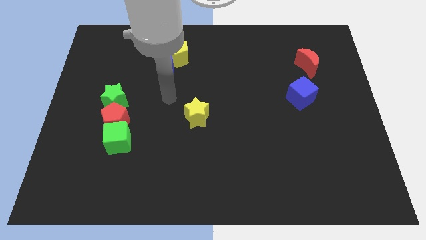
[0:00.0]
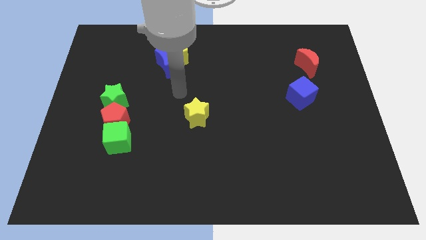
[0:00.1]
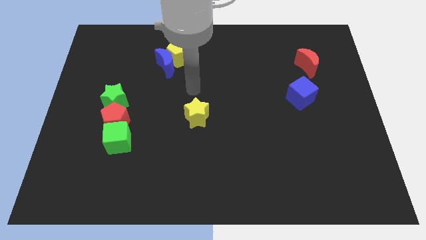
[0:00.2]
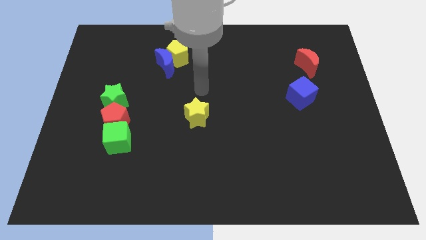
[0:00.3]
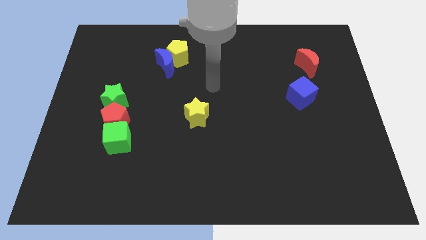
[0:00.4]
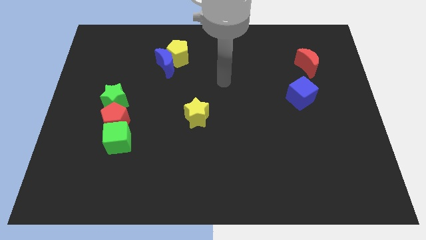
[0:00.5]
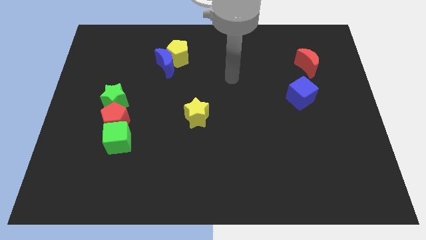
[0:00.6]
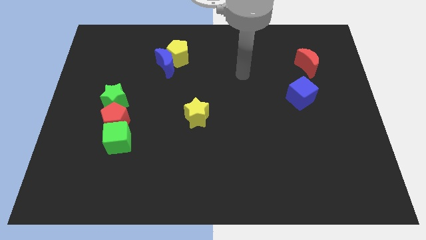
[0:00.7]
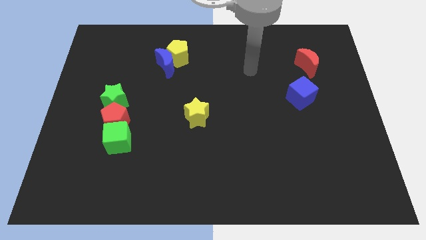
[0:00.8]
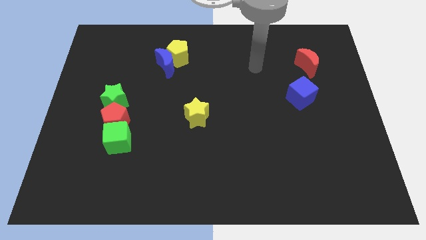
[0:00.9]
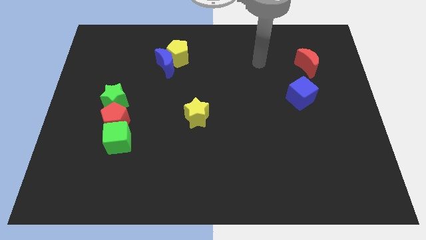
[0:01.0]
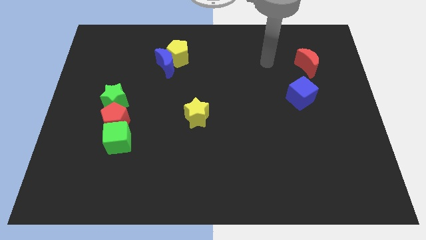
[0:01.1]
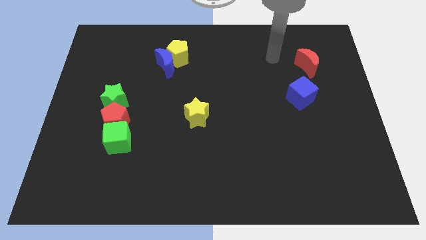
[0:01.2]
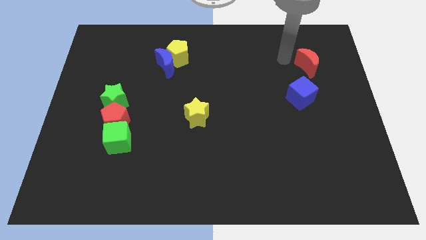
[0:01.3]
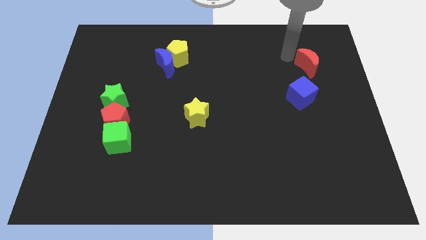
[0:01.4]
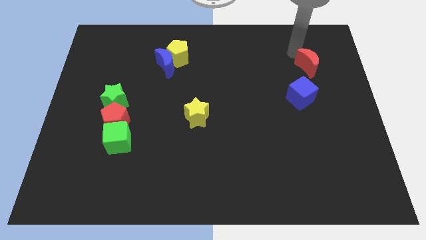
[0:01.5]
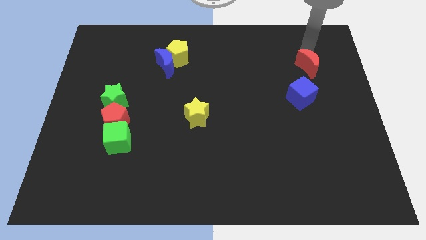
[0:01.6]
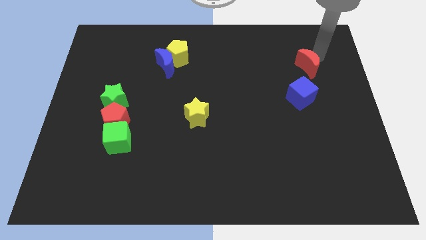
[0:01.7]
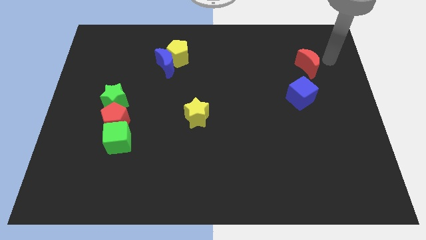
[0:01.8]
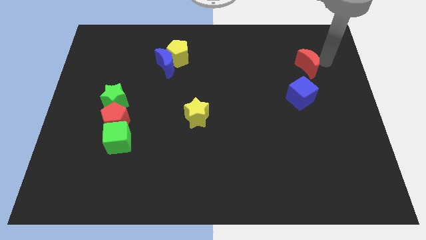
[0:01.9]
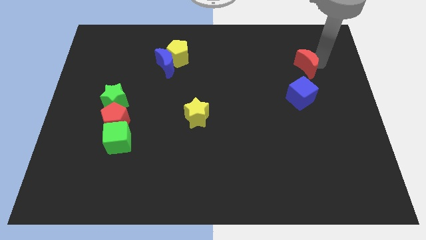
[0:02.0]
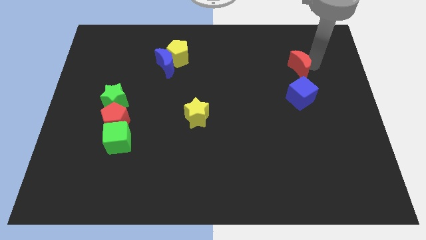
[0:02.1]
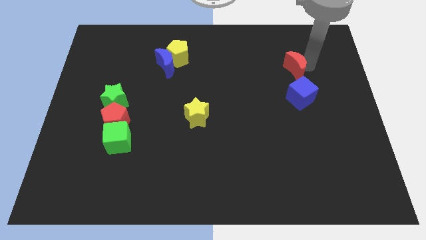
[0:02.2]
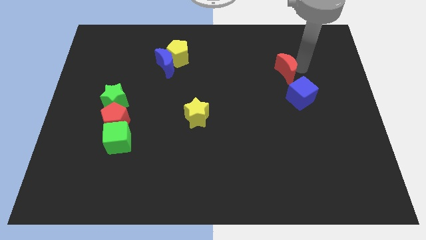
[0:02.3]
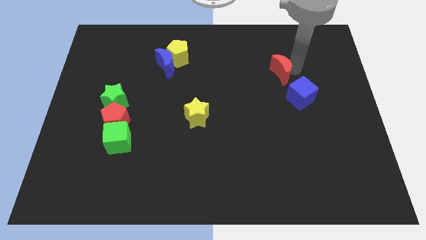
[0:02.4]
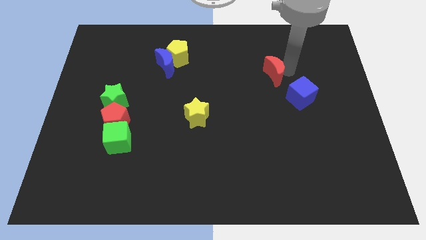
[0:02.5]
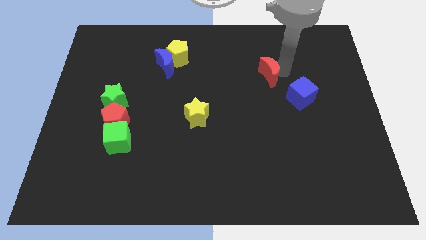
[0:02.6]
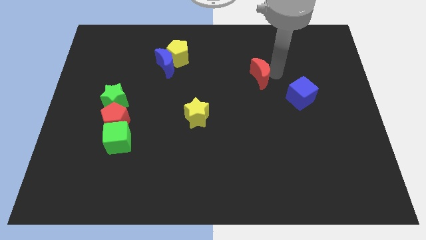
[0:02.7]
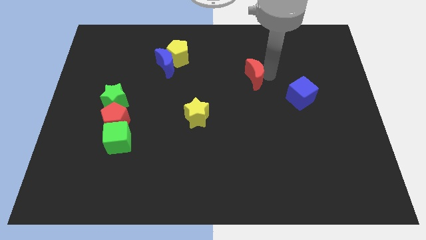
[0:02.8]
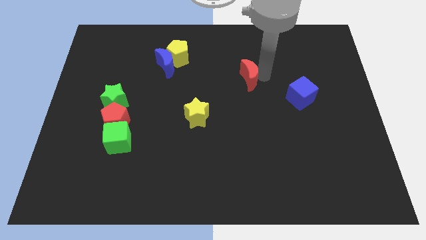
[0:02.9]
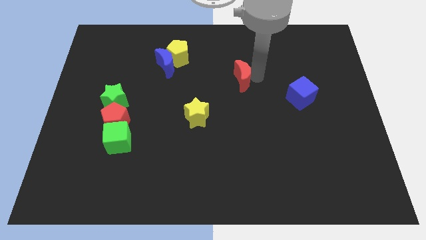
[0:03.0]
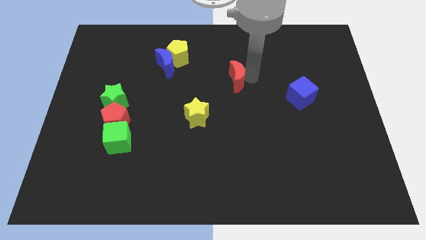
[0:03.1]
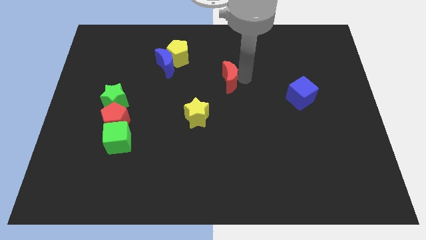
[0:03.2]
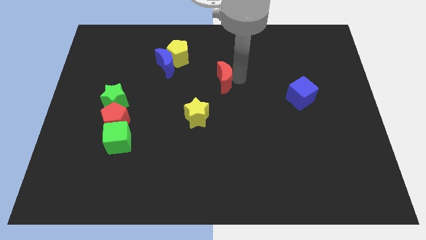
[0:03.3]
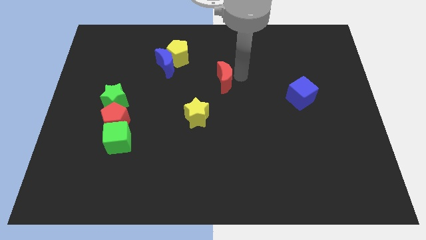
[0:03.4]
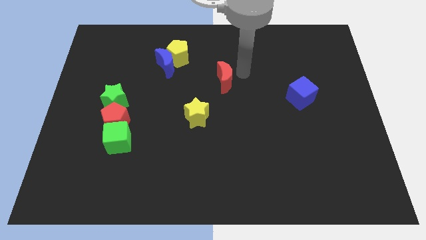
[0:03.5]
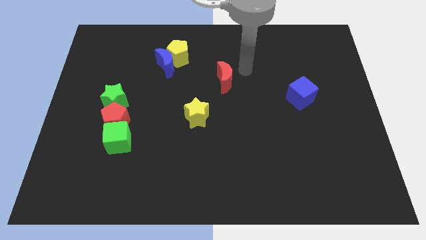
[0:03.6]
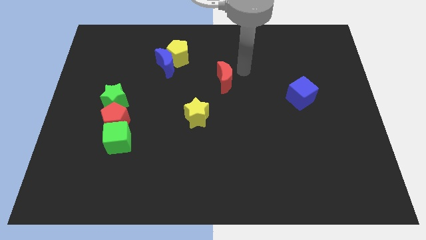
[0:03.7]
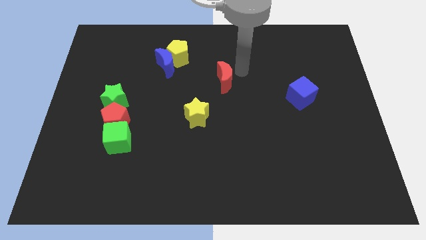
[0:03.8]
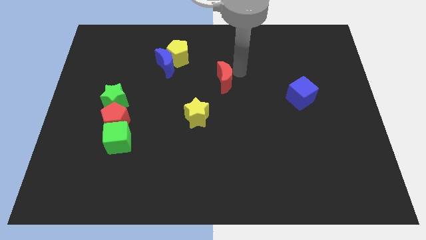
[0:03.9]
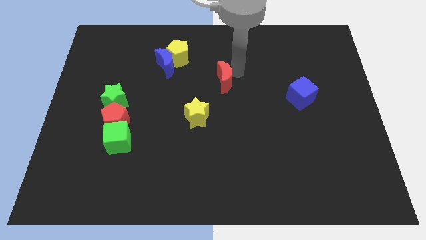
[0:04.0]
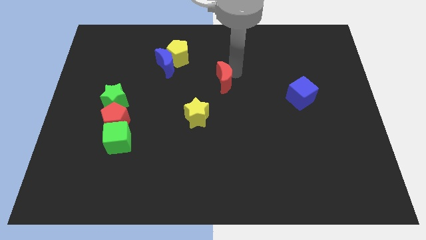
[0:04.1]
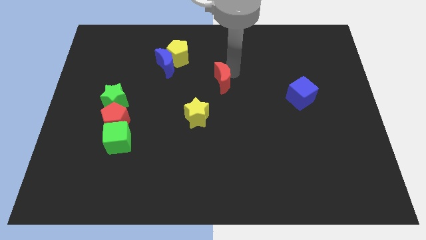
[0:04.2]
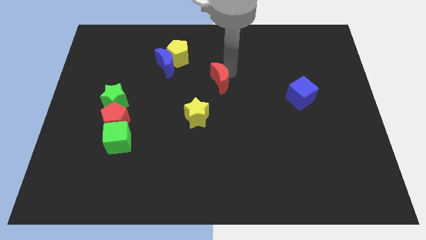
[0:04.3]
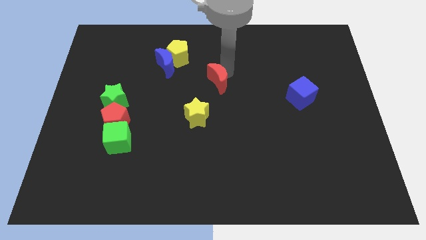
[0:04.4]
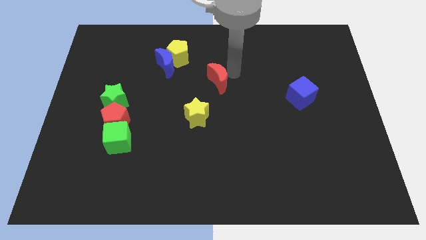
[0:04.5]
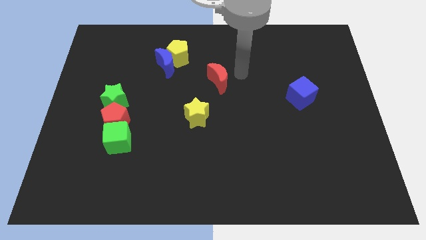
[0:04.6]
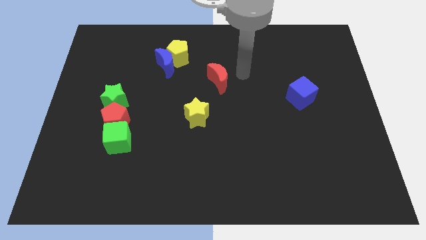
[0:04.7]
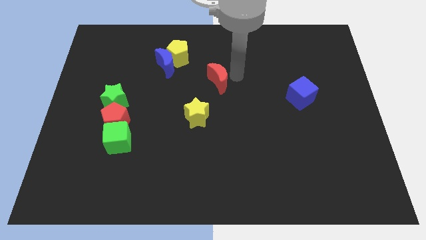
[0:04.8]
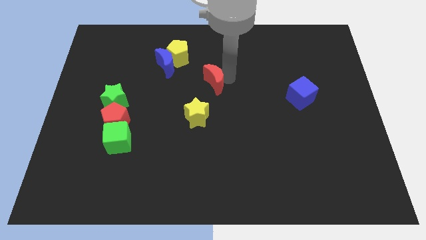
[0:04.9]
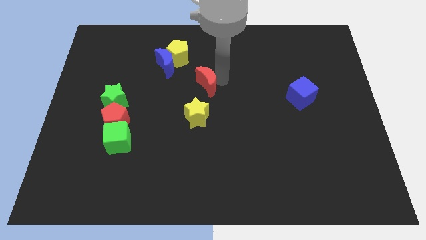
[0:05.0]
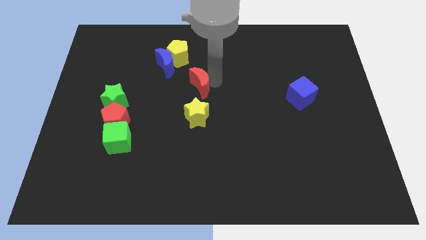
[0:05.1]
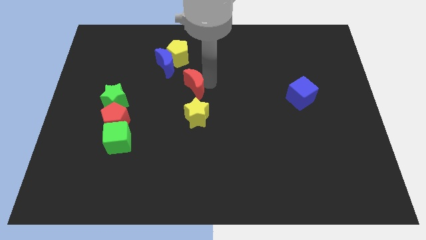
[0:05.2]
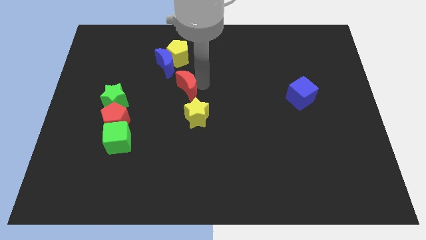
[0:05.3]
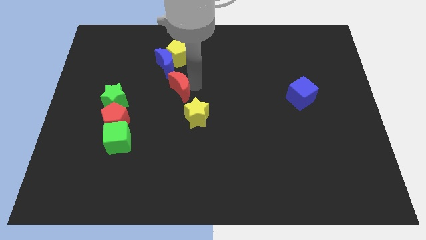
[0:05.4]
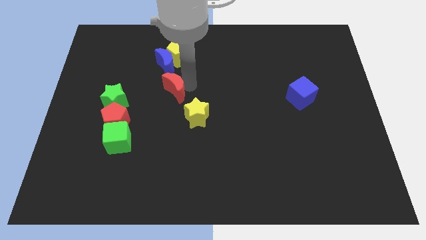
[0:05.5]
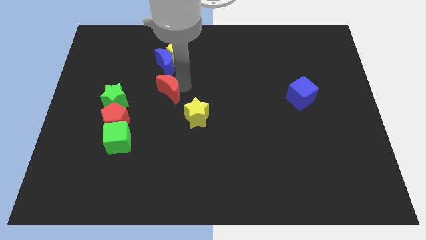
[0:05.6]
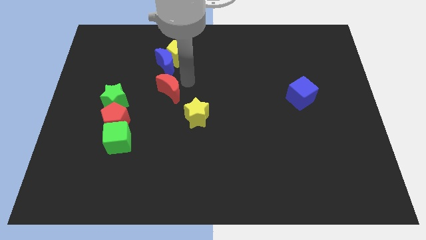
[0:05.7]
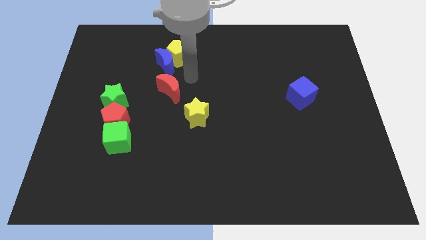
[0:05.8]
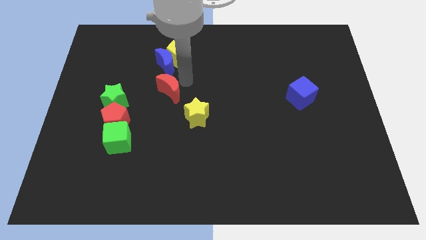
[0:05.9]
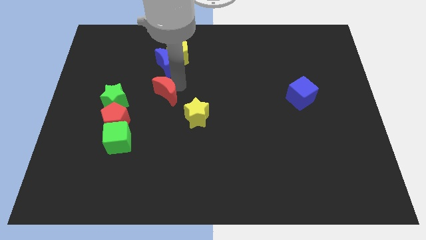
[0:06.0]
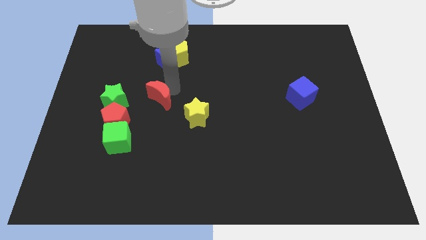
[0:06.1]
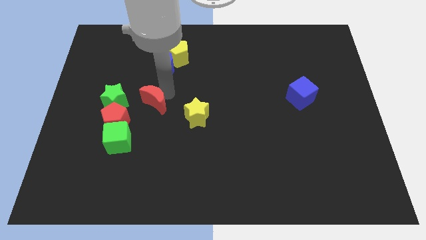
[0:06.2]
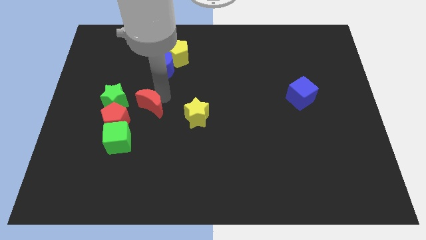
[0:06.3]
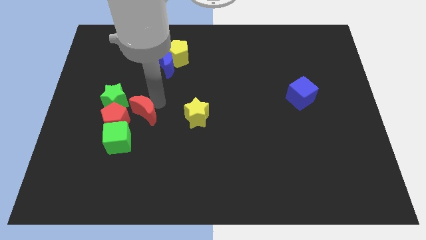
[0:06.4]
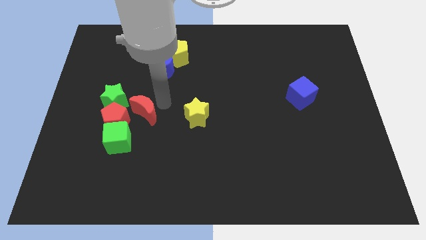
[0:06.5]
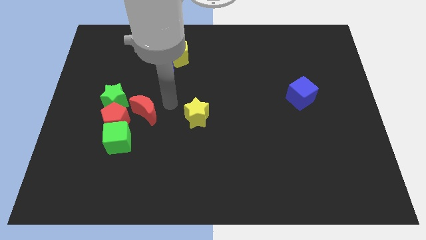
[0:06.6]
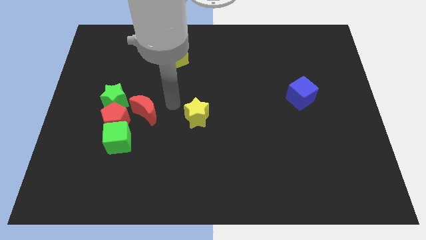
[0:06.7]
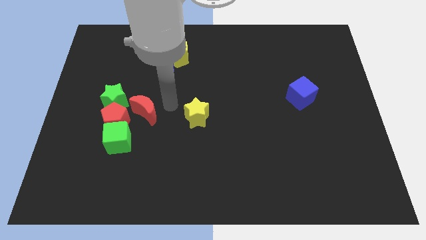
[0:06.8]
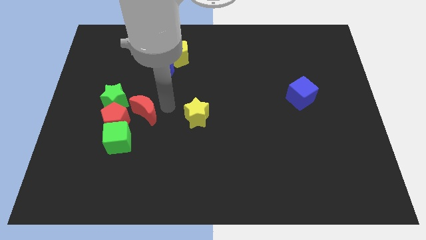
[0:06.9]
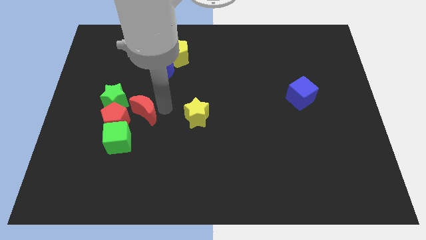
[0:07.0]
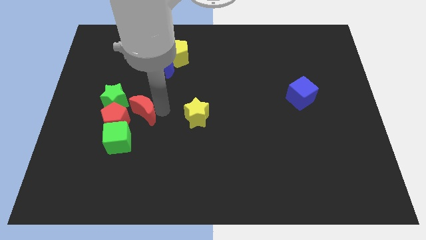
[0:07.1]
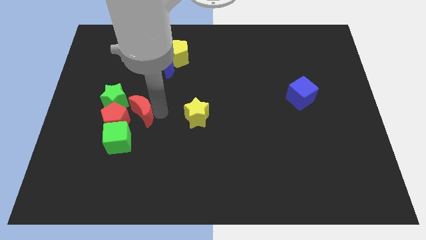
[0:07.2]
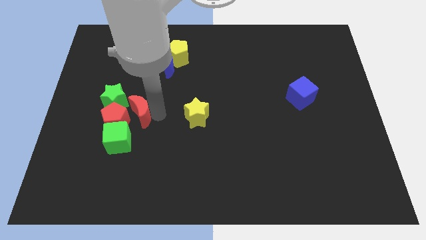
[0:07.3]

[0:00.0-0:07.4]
push the red moon close to the red pentagon

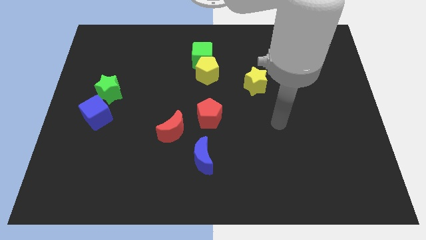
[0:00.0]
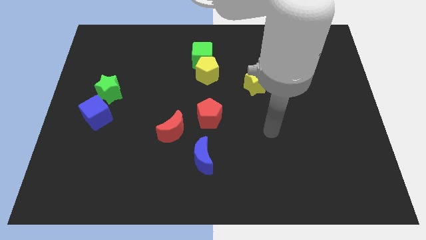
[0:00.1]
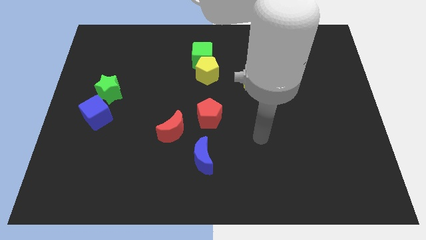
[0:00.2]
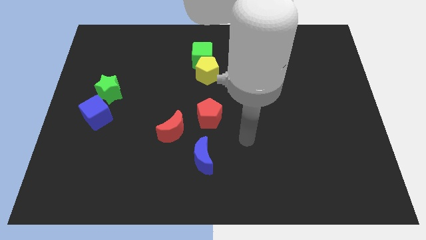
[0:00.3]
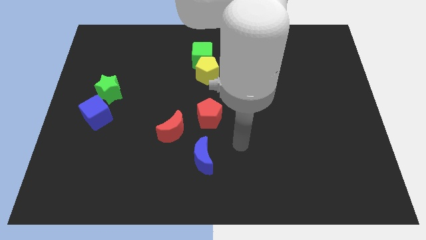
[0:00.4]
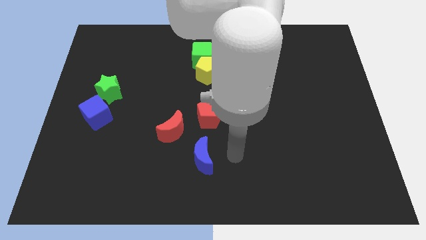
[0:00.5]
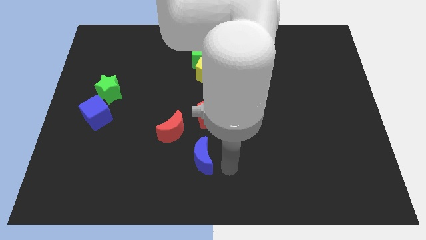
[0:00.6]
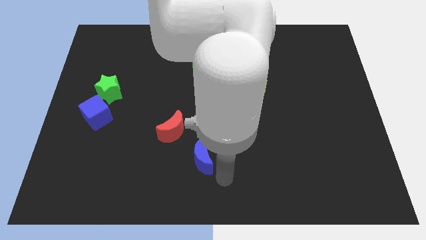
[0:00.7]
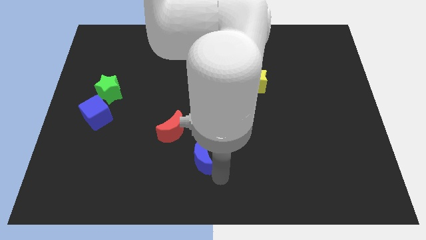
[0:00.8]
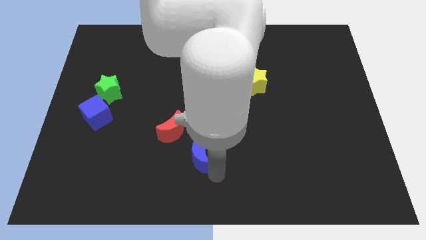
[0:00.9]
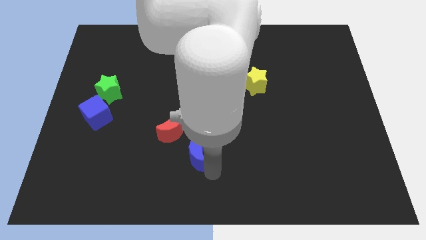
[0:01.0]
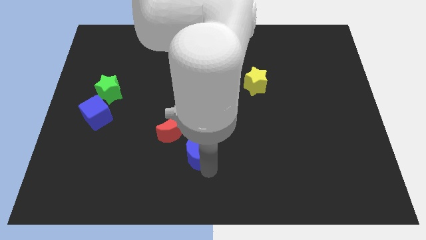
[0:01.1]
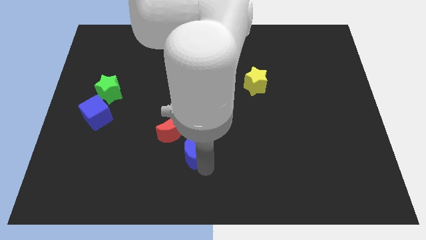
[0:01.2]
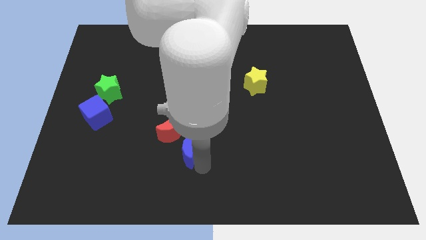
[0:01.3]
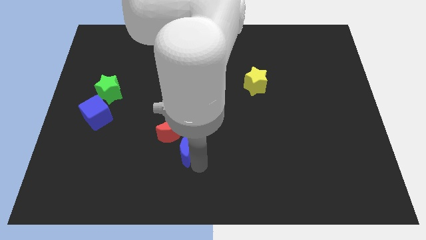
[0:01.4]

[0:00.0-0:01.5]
push the blue moon close to the red moon
